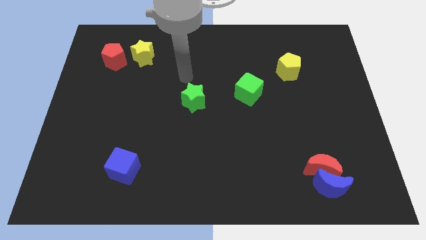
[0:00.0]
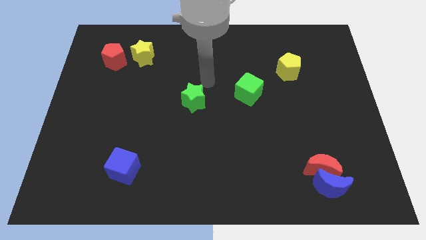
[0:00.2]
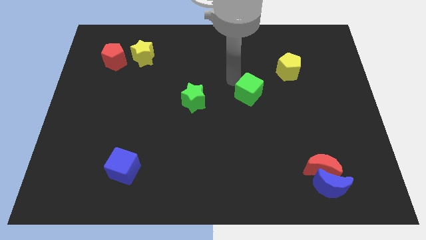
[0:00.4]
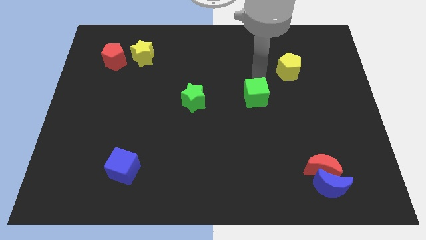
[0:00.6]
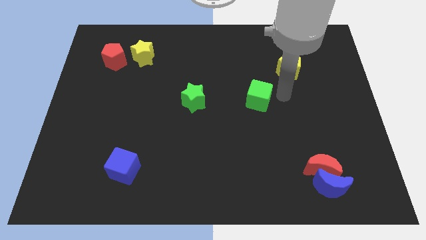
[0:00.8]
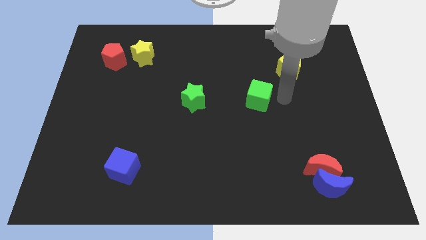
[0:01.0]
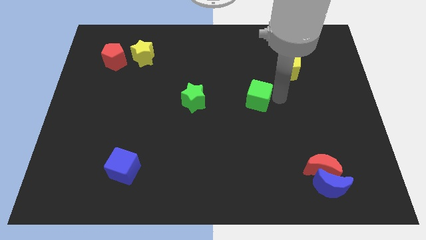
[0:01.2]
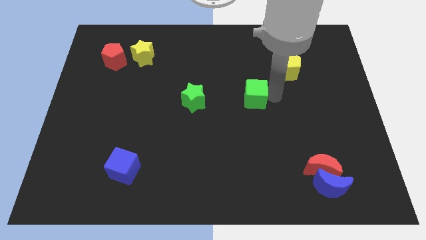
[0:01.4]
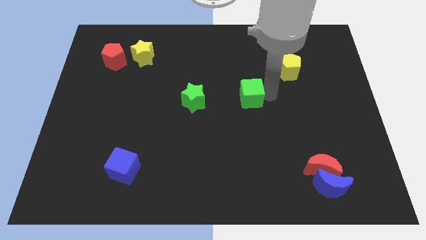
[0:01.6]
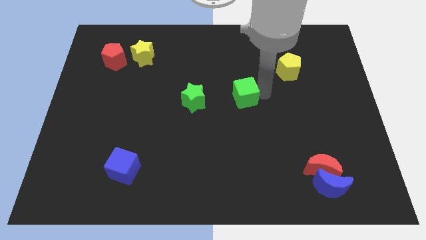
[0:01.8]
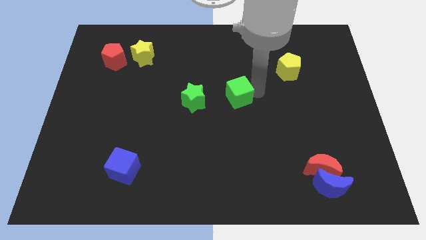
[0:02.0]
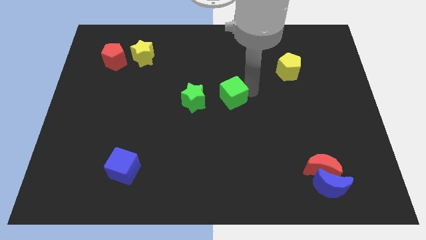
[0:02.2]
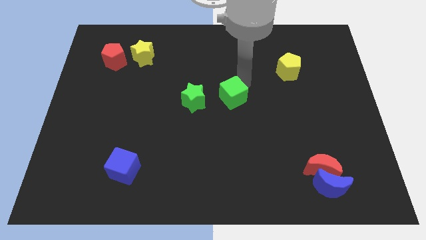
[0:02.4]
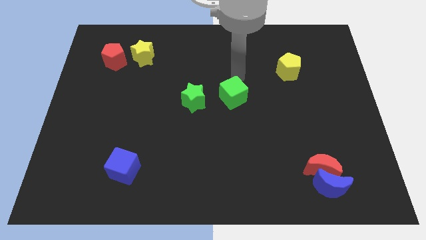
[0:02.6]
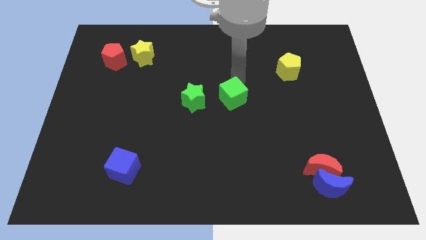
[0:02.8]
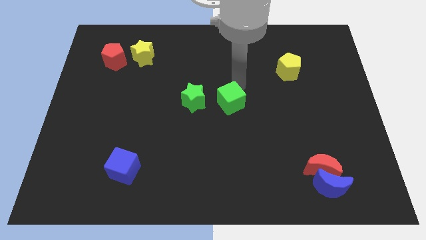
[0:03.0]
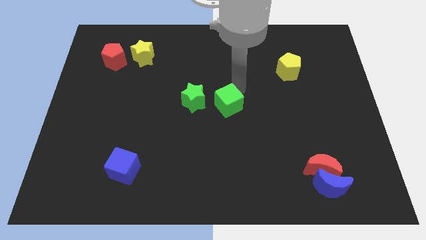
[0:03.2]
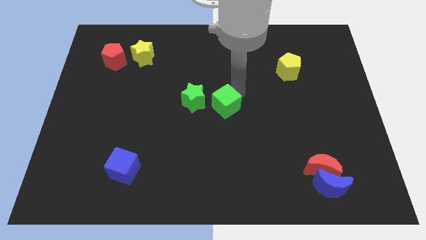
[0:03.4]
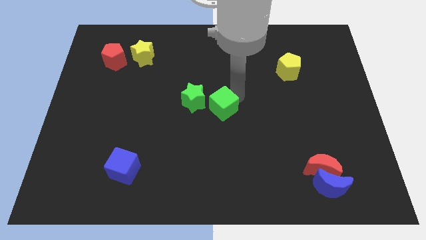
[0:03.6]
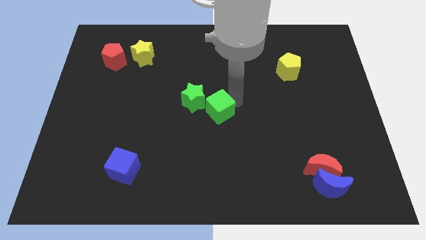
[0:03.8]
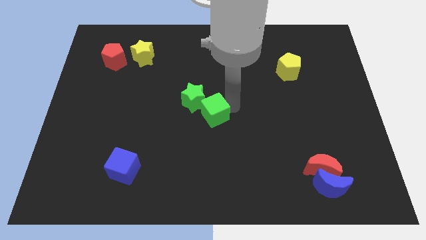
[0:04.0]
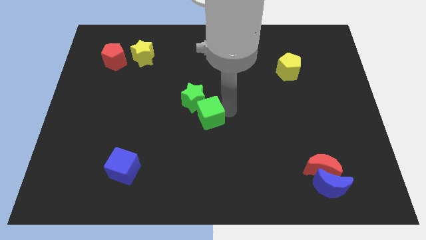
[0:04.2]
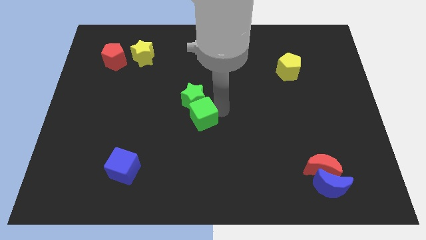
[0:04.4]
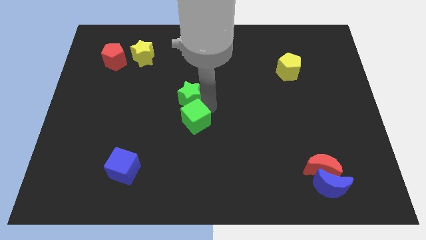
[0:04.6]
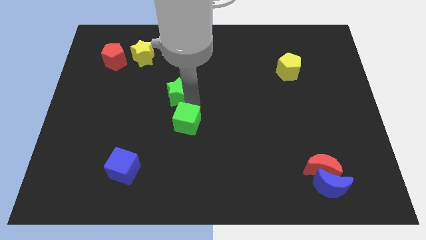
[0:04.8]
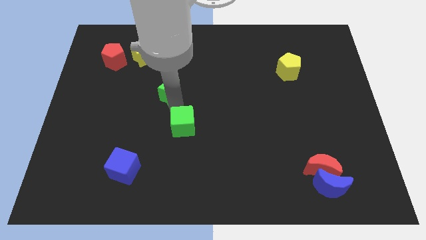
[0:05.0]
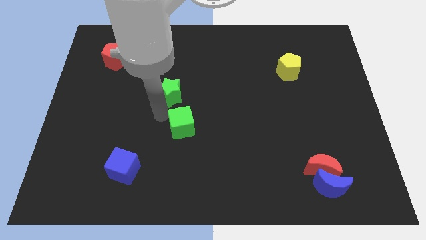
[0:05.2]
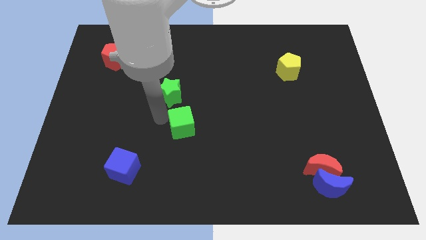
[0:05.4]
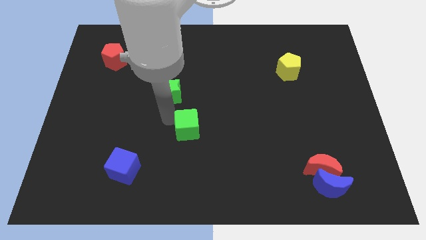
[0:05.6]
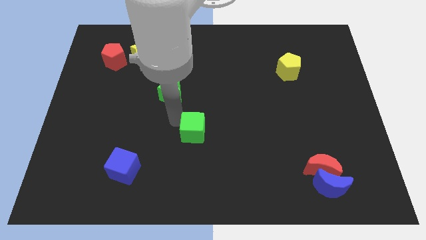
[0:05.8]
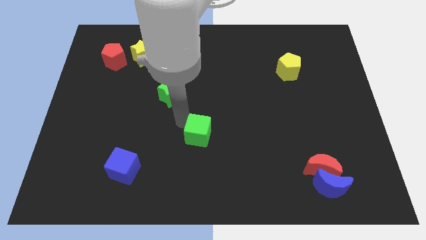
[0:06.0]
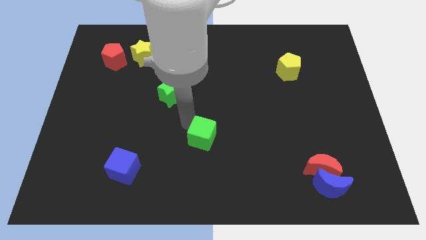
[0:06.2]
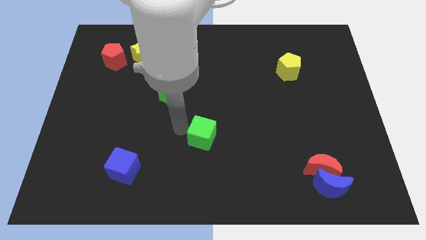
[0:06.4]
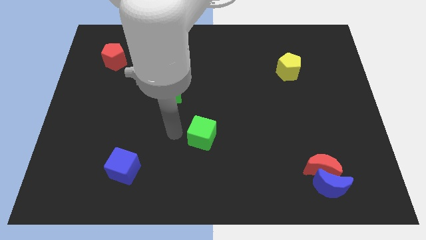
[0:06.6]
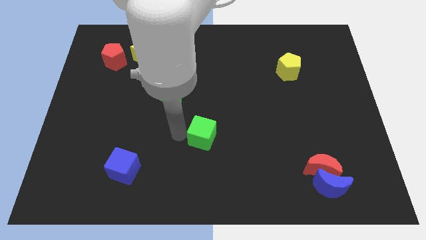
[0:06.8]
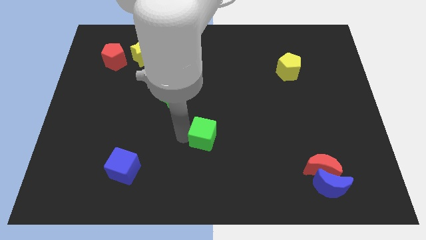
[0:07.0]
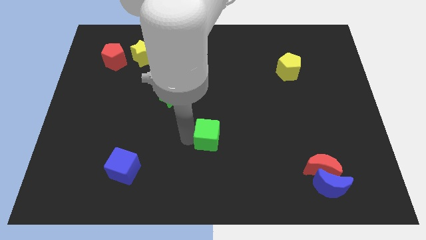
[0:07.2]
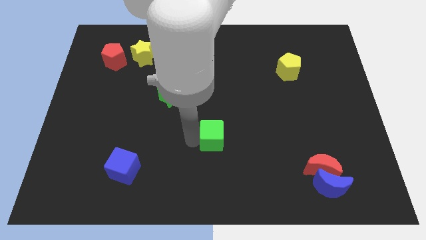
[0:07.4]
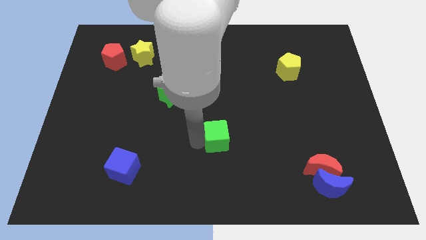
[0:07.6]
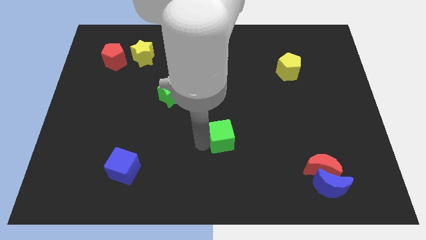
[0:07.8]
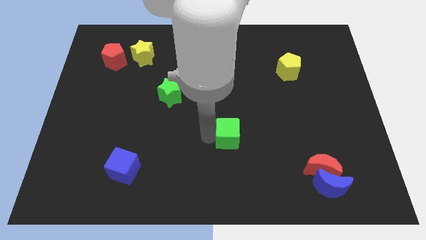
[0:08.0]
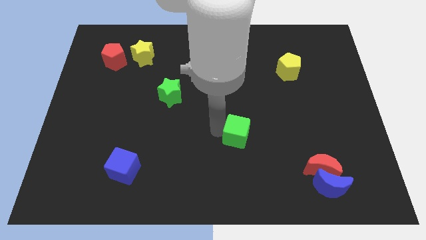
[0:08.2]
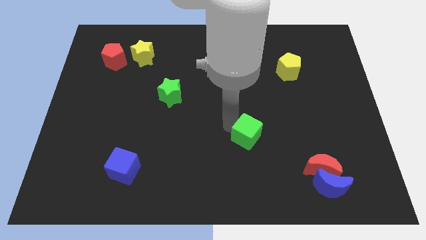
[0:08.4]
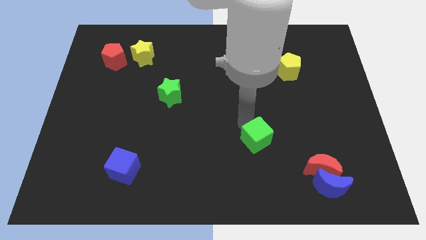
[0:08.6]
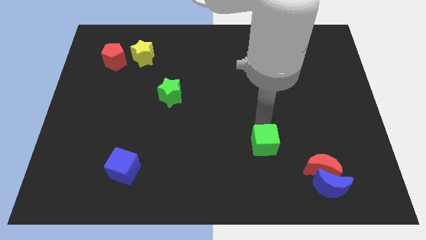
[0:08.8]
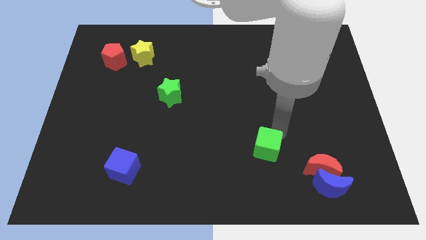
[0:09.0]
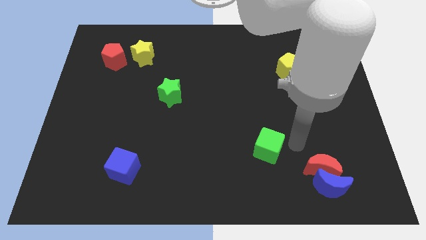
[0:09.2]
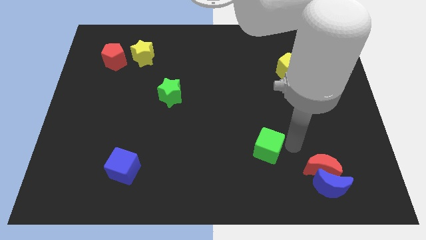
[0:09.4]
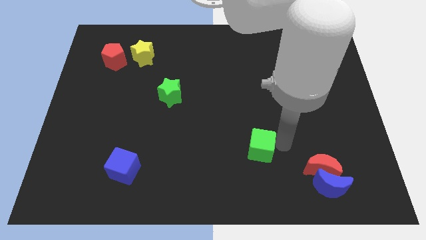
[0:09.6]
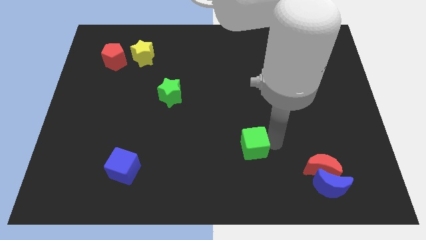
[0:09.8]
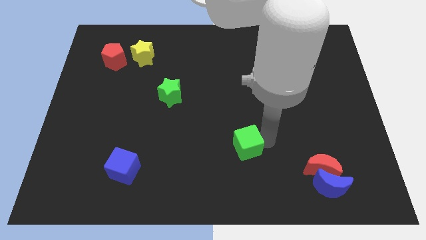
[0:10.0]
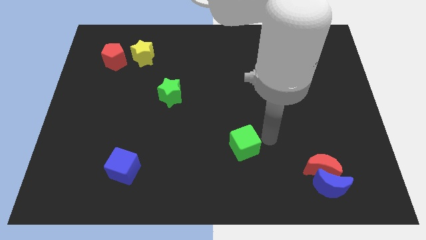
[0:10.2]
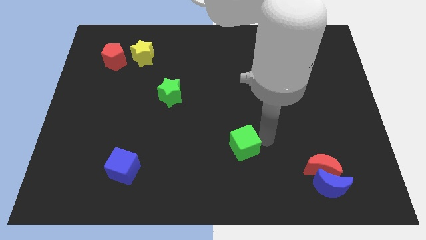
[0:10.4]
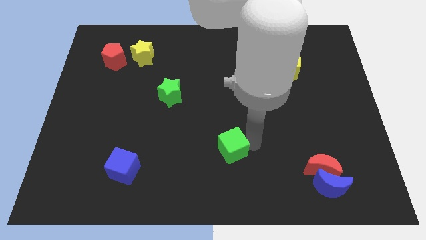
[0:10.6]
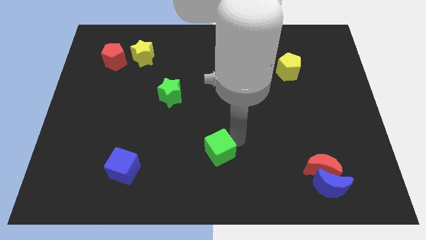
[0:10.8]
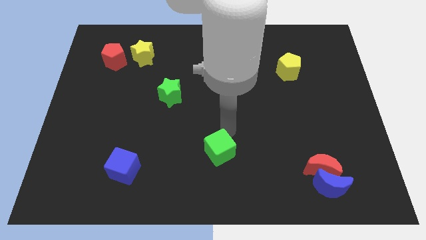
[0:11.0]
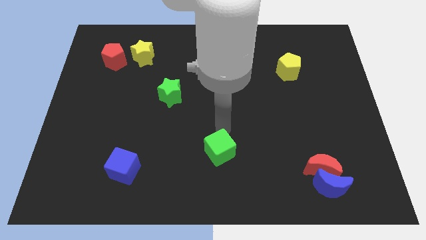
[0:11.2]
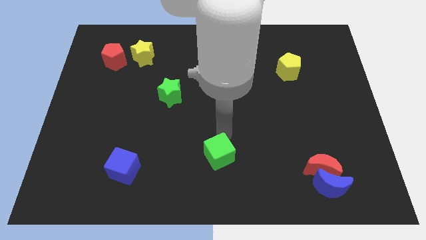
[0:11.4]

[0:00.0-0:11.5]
move the green cube to the bottom

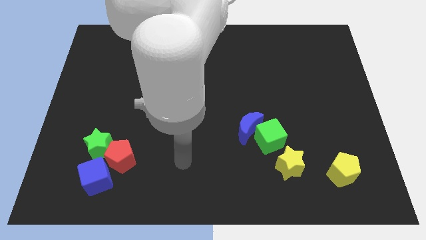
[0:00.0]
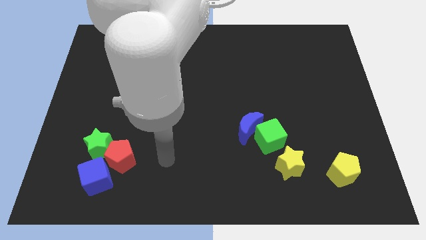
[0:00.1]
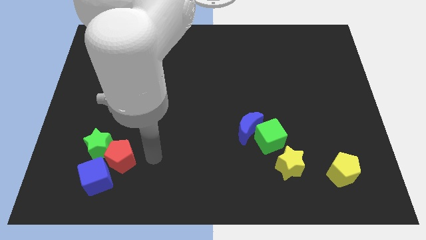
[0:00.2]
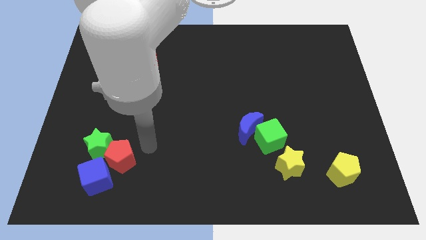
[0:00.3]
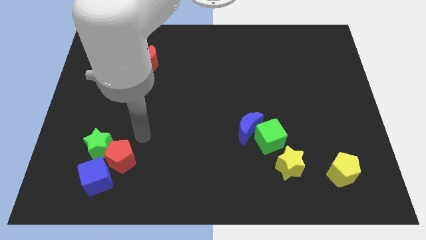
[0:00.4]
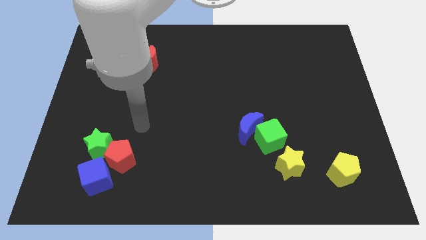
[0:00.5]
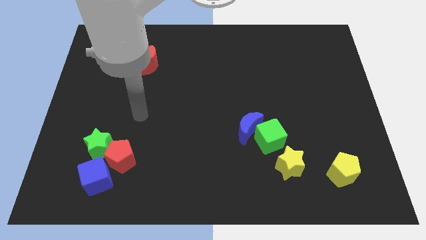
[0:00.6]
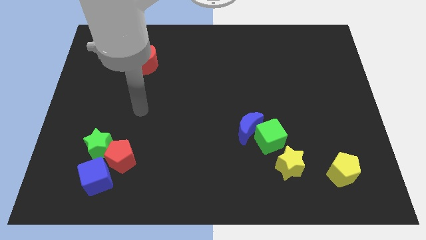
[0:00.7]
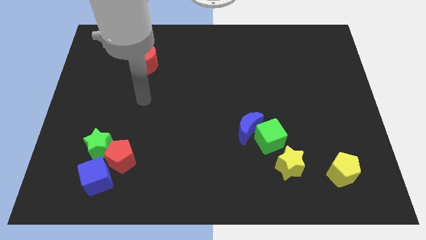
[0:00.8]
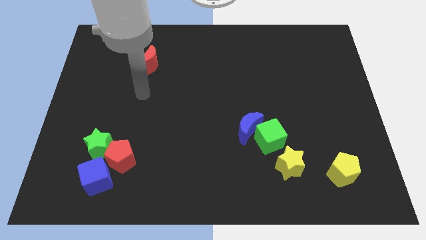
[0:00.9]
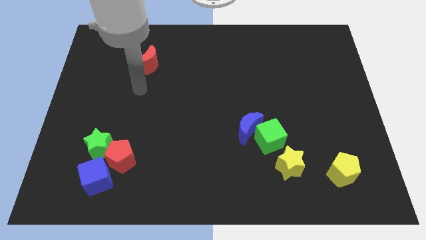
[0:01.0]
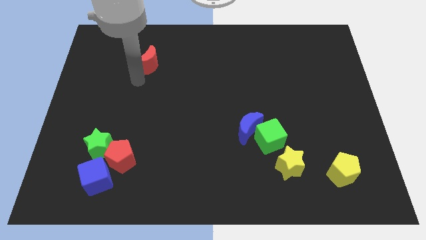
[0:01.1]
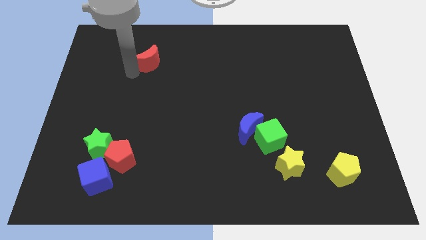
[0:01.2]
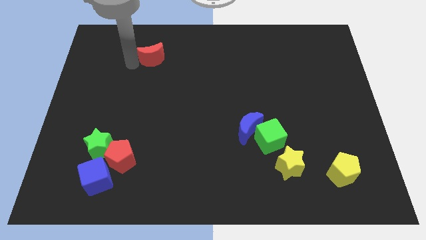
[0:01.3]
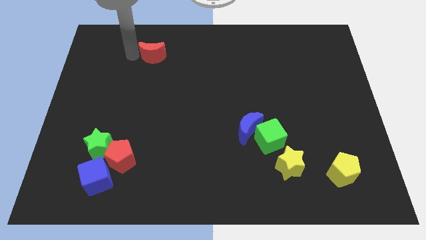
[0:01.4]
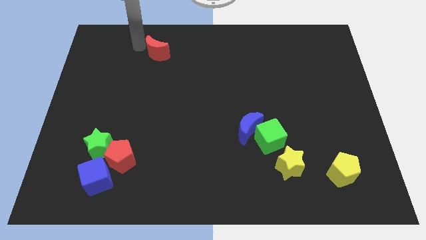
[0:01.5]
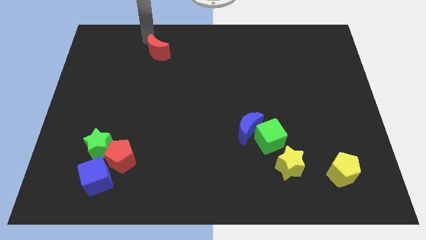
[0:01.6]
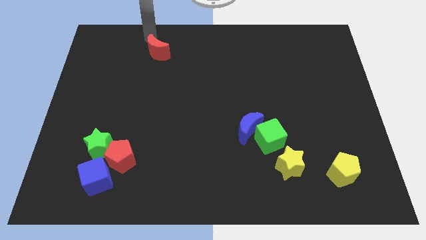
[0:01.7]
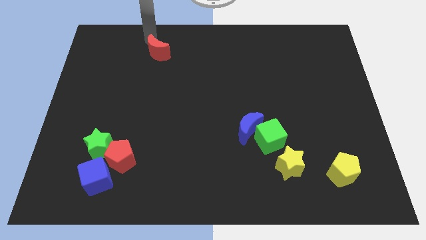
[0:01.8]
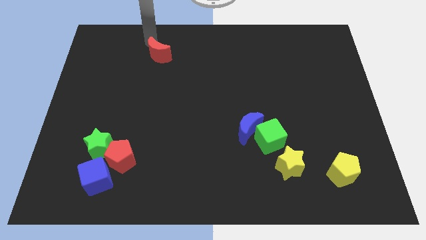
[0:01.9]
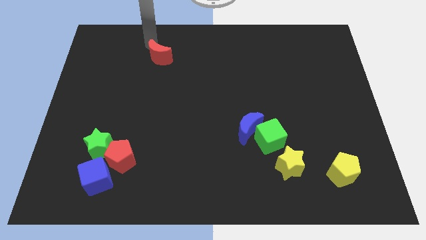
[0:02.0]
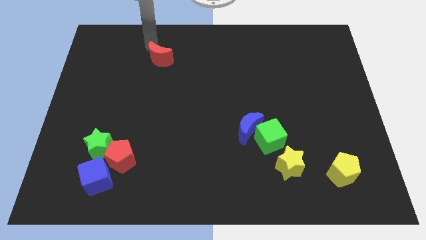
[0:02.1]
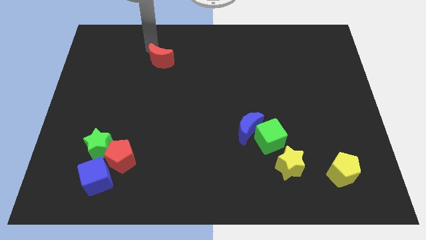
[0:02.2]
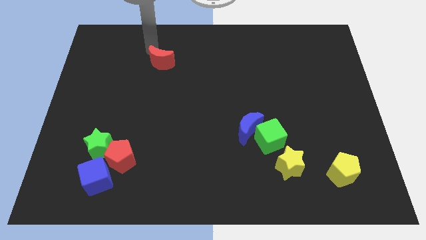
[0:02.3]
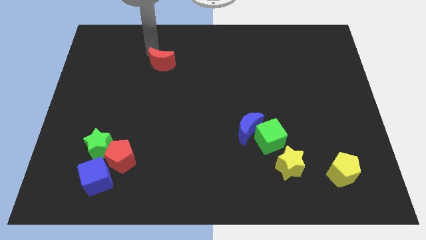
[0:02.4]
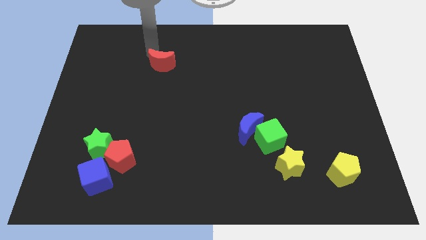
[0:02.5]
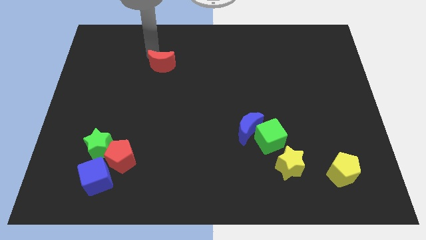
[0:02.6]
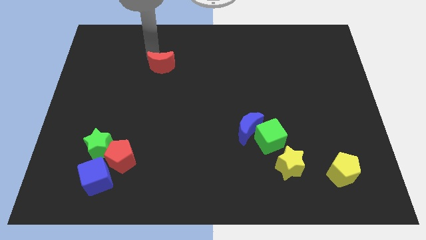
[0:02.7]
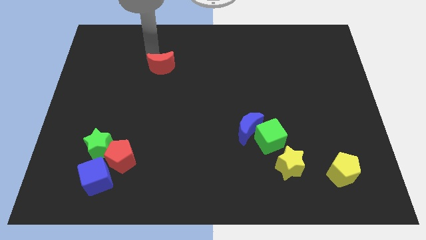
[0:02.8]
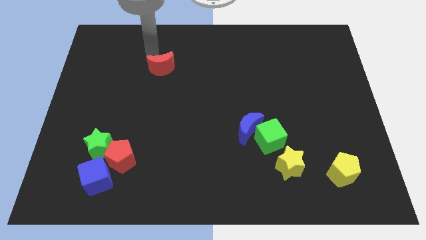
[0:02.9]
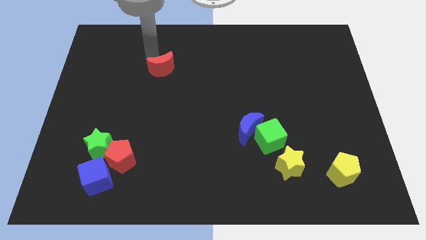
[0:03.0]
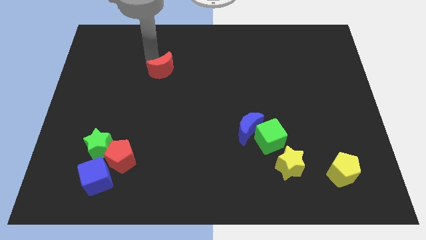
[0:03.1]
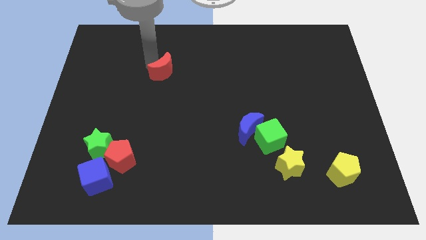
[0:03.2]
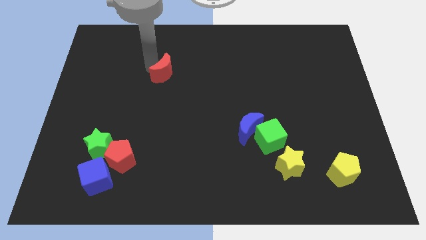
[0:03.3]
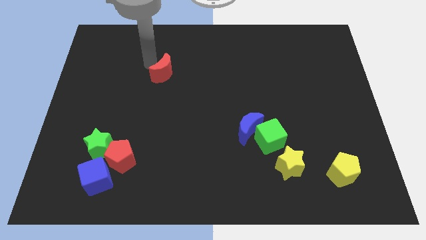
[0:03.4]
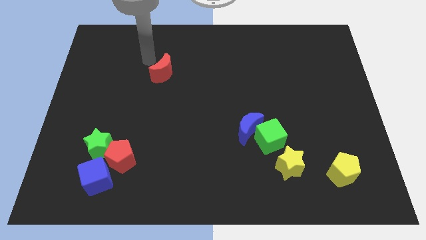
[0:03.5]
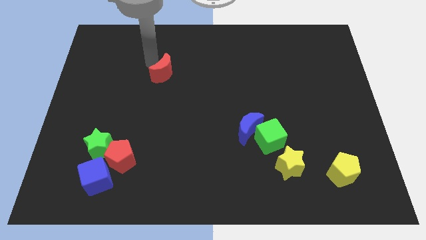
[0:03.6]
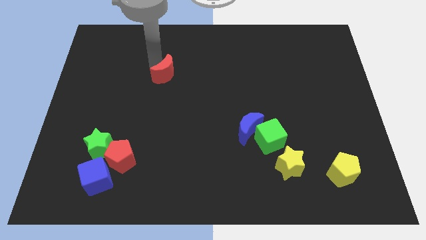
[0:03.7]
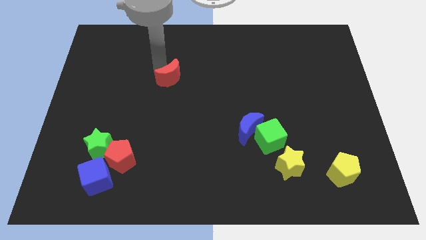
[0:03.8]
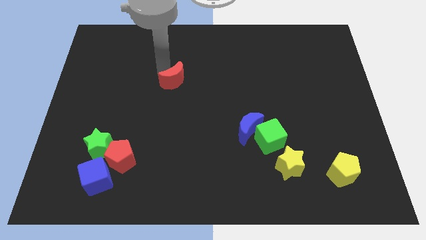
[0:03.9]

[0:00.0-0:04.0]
slide the red moon to the center
